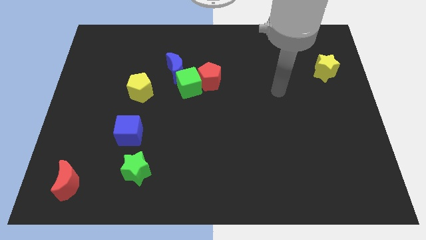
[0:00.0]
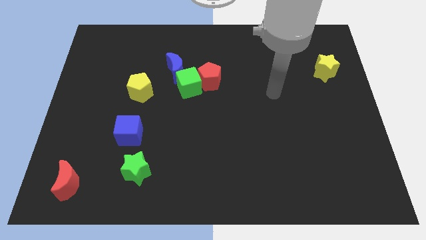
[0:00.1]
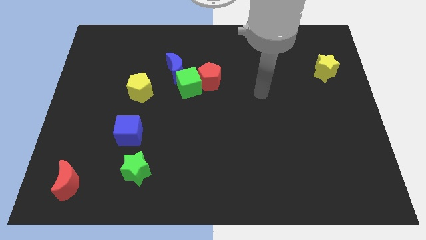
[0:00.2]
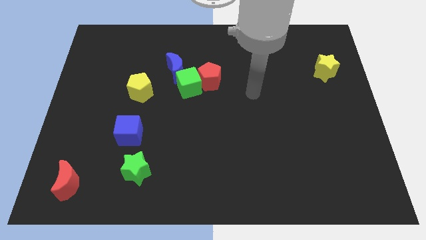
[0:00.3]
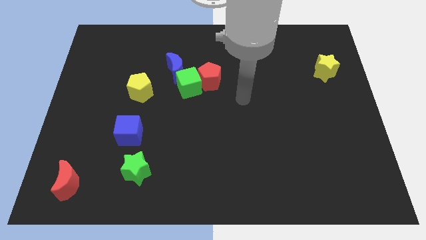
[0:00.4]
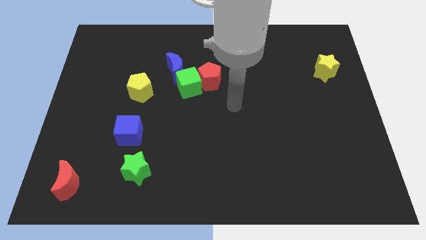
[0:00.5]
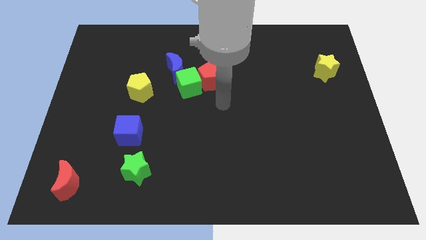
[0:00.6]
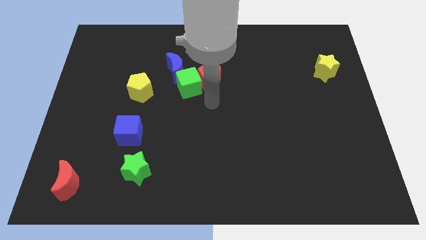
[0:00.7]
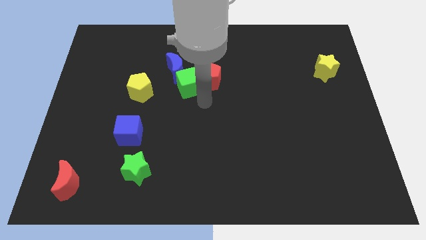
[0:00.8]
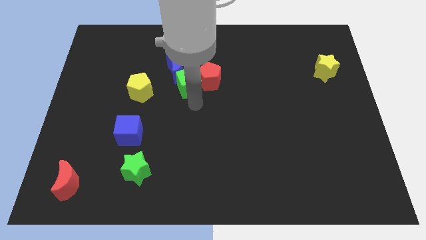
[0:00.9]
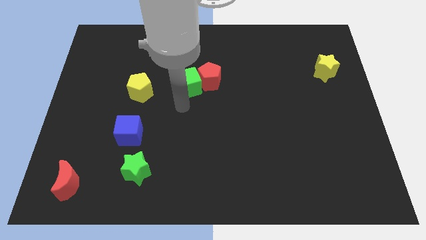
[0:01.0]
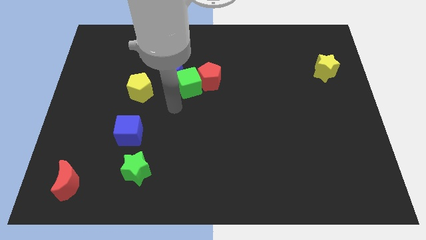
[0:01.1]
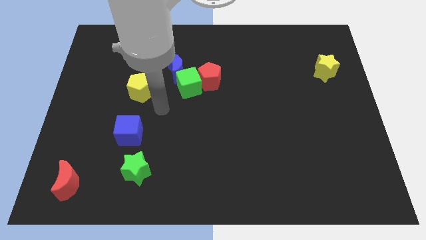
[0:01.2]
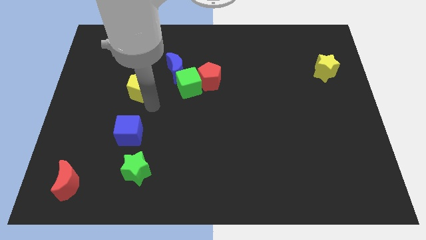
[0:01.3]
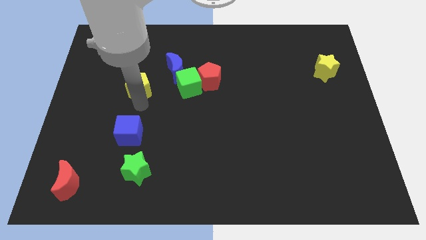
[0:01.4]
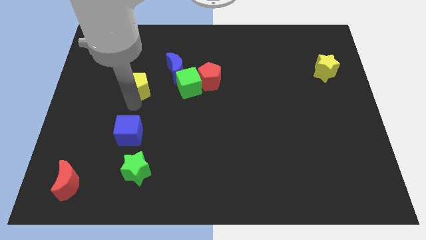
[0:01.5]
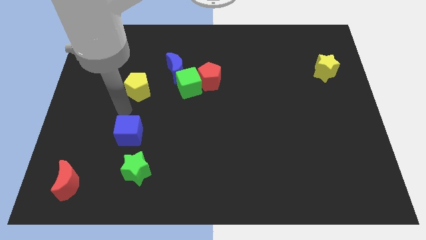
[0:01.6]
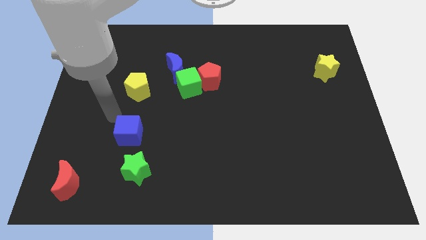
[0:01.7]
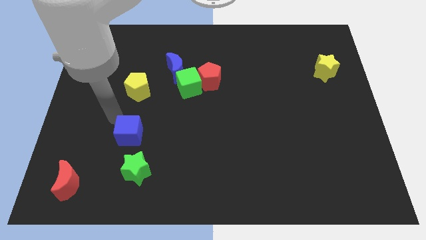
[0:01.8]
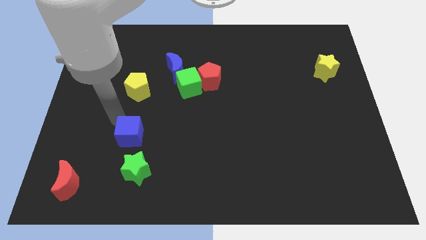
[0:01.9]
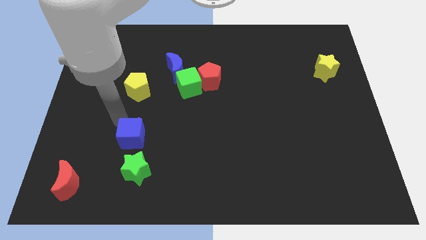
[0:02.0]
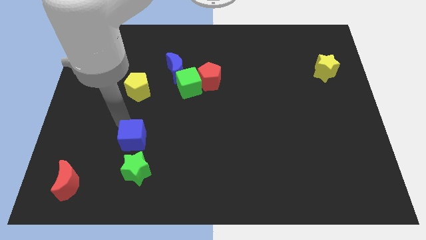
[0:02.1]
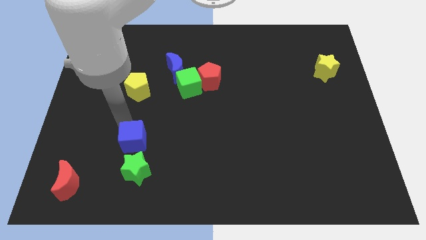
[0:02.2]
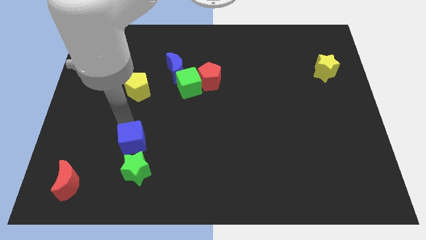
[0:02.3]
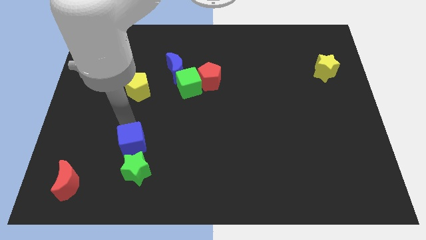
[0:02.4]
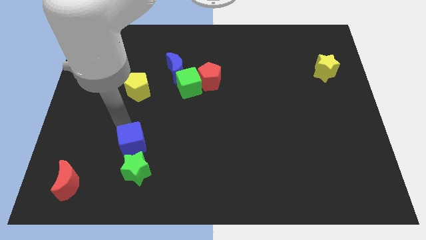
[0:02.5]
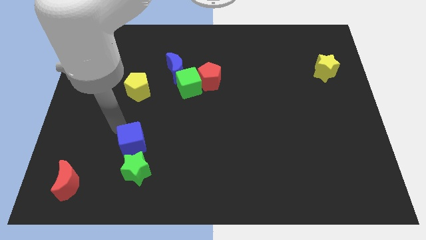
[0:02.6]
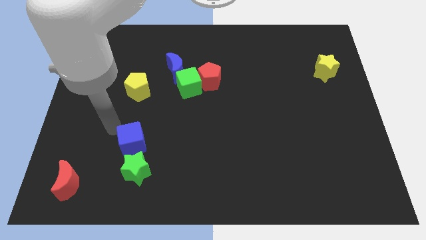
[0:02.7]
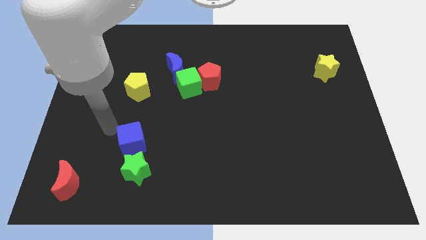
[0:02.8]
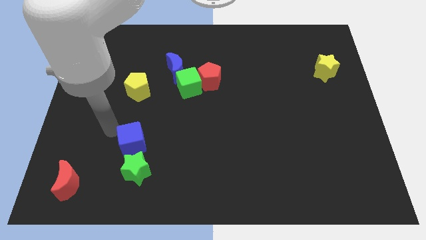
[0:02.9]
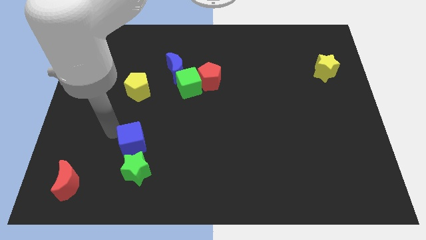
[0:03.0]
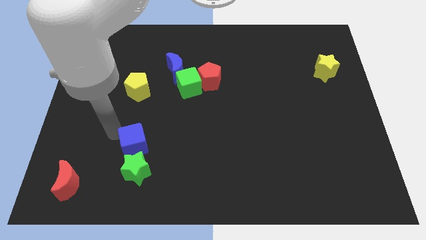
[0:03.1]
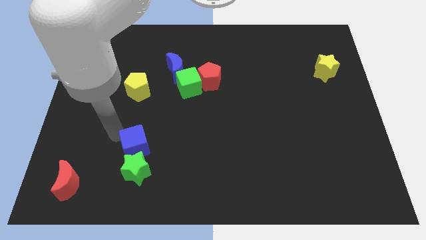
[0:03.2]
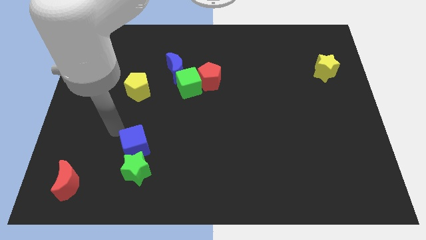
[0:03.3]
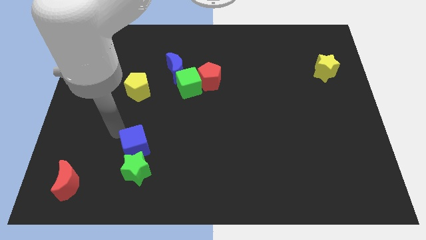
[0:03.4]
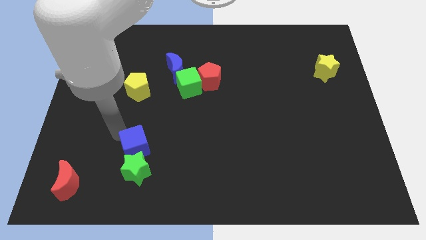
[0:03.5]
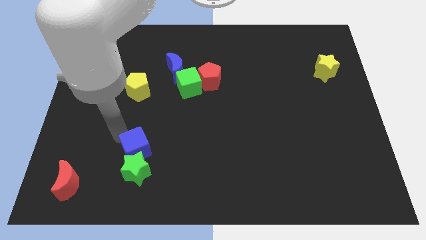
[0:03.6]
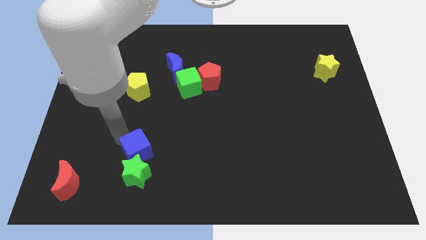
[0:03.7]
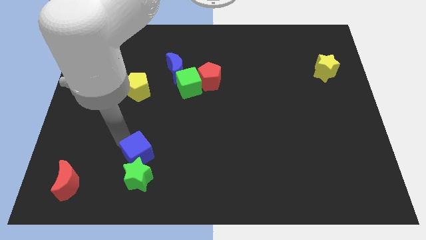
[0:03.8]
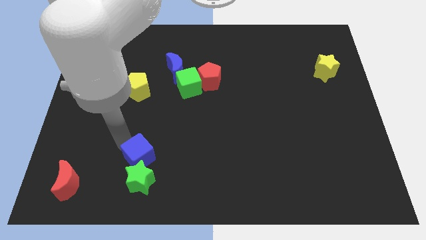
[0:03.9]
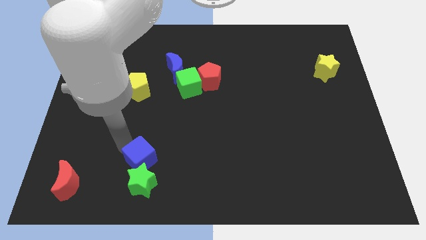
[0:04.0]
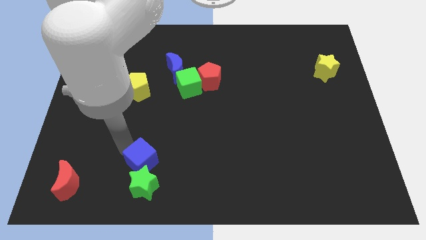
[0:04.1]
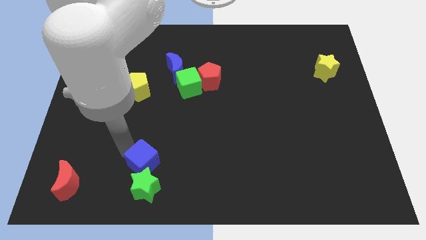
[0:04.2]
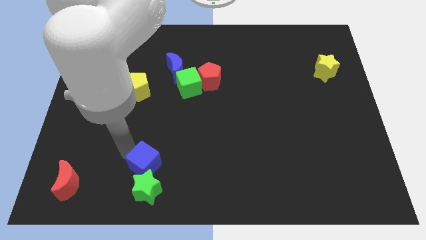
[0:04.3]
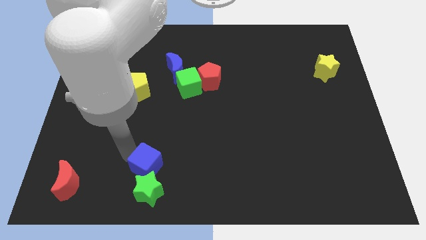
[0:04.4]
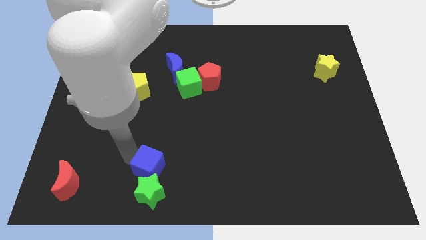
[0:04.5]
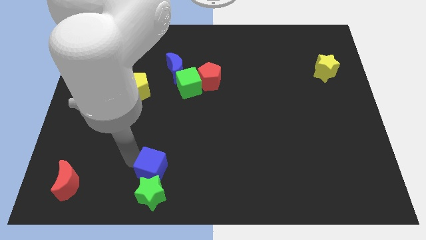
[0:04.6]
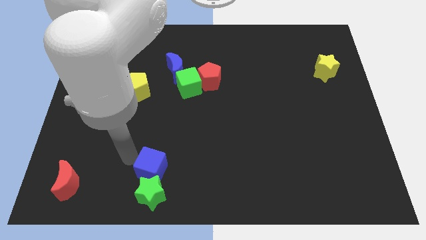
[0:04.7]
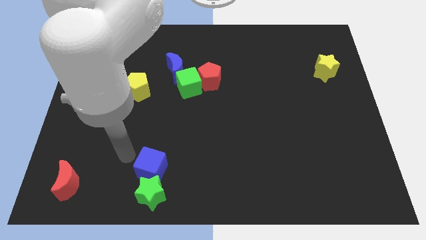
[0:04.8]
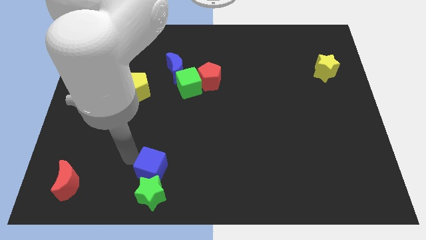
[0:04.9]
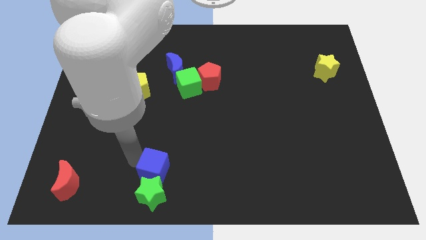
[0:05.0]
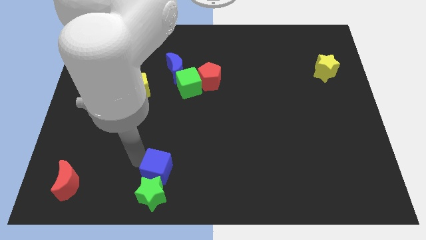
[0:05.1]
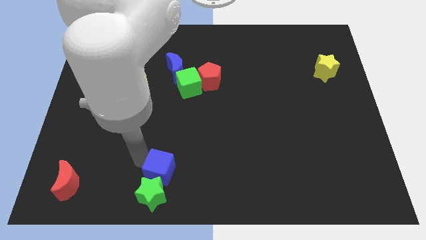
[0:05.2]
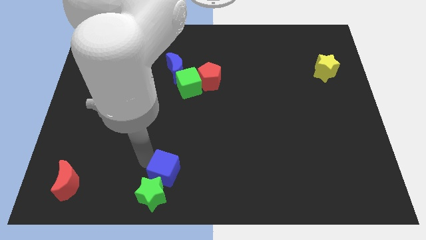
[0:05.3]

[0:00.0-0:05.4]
push the blue cube to the bottom side

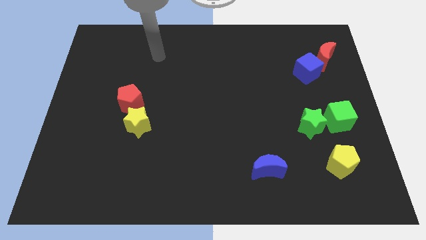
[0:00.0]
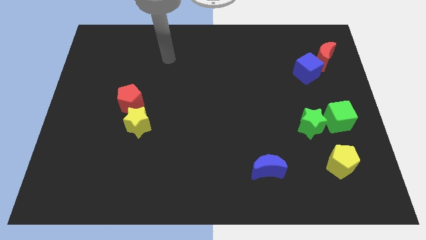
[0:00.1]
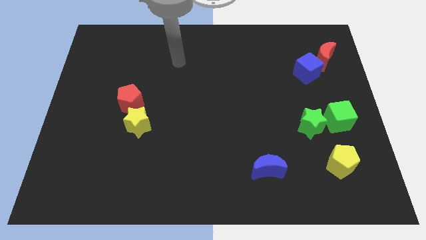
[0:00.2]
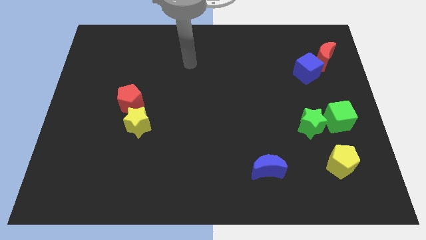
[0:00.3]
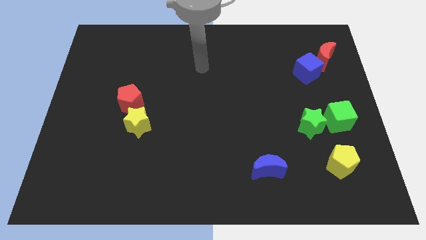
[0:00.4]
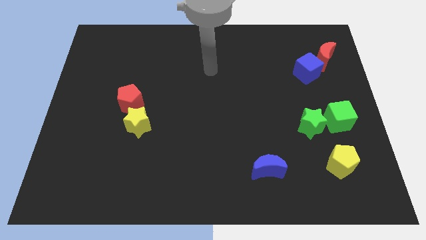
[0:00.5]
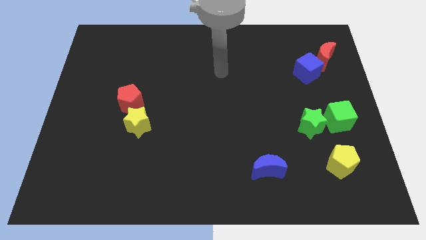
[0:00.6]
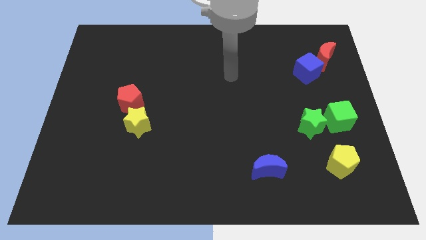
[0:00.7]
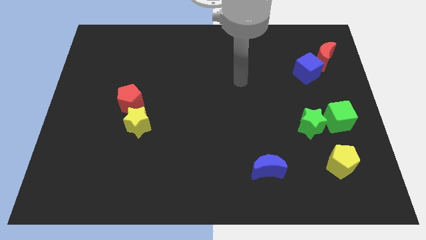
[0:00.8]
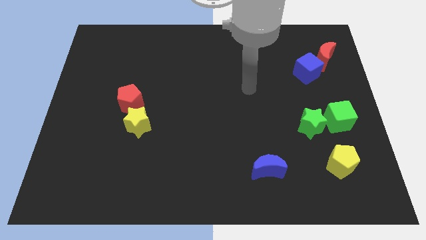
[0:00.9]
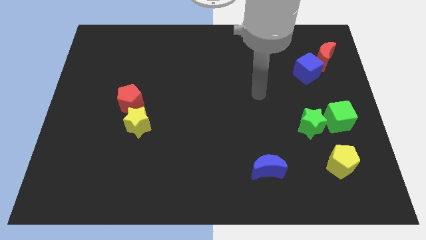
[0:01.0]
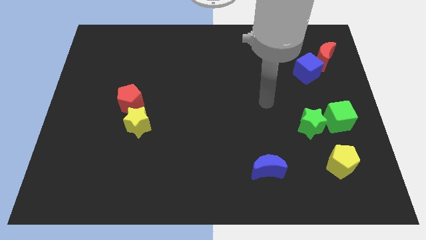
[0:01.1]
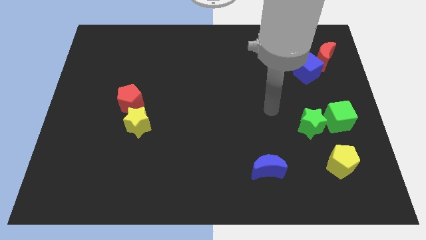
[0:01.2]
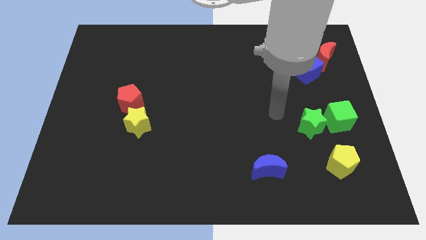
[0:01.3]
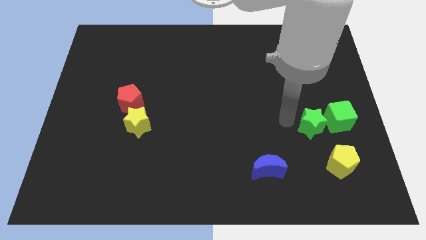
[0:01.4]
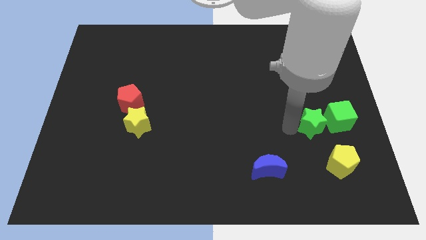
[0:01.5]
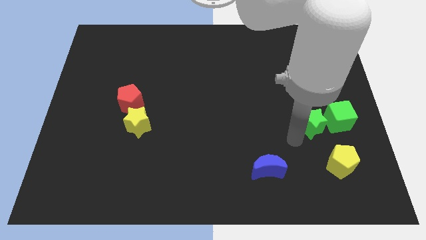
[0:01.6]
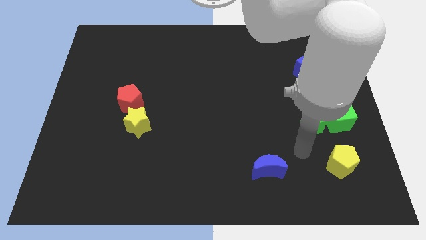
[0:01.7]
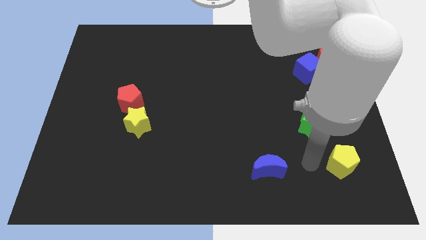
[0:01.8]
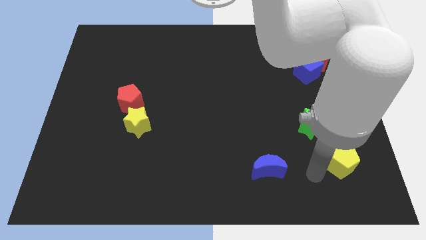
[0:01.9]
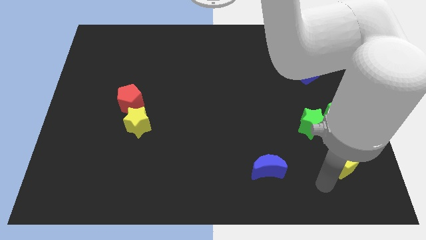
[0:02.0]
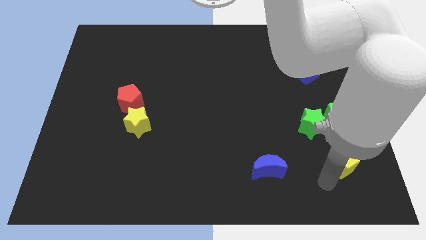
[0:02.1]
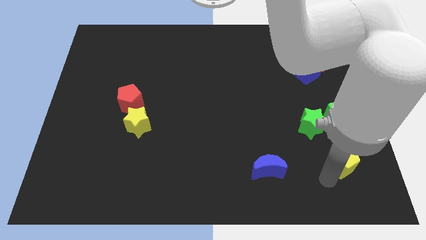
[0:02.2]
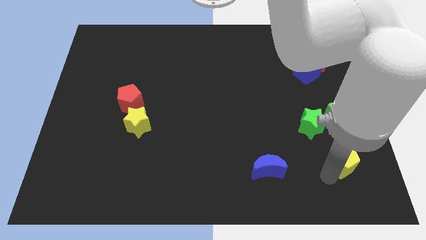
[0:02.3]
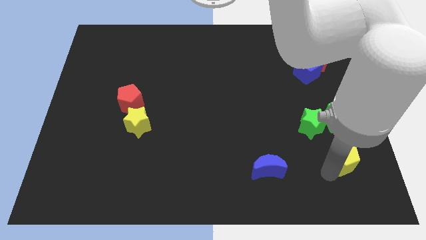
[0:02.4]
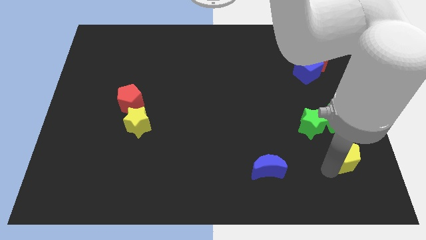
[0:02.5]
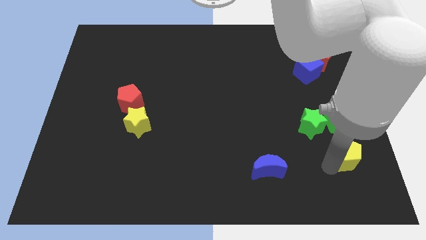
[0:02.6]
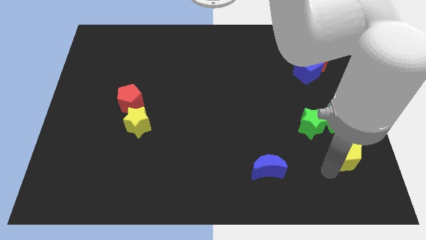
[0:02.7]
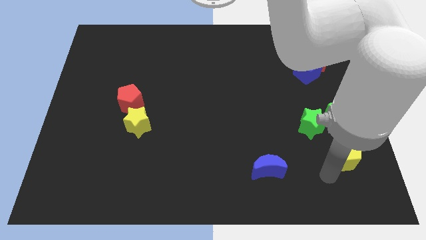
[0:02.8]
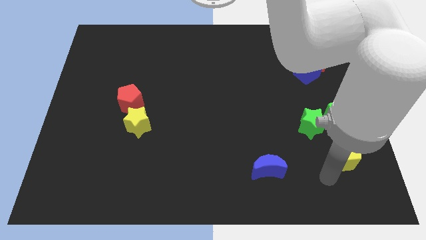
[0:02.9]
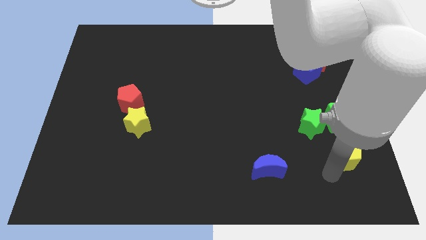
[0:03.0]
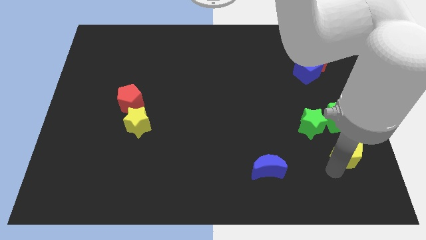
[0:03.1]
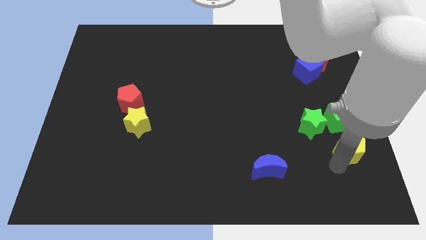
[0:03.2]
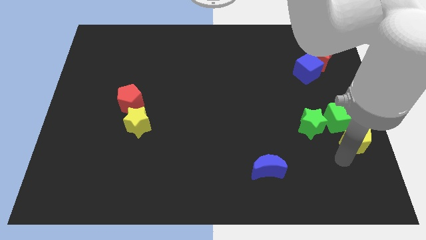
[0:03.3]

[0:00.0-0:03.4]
move the yellow pentagon to the right side of the board
